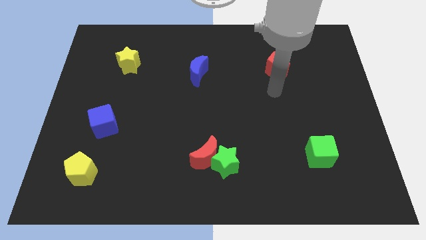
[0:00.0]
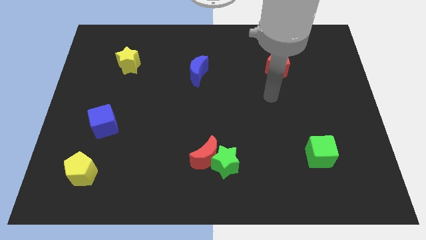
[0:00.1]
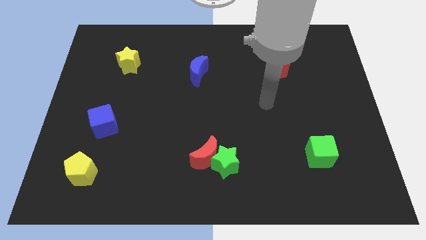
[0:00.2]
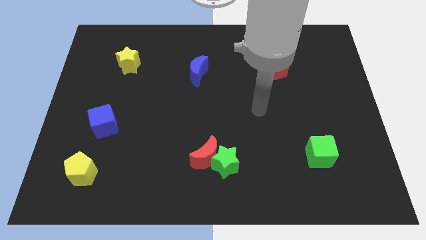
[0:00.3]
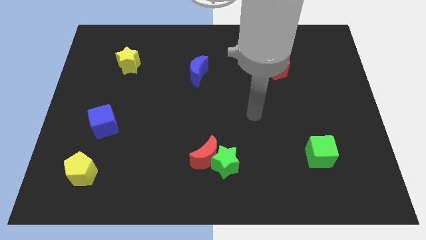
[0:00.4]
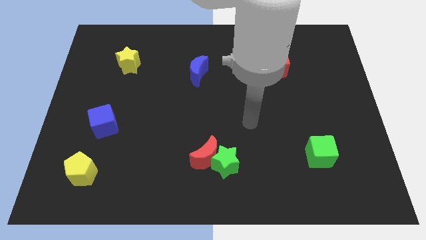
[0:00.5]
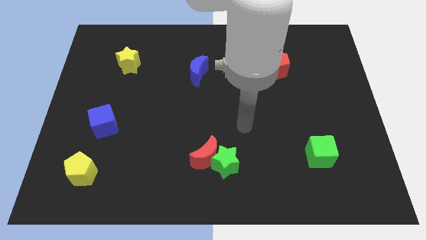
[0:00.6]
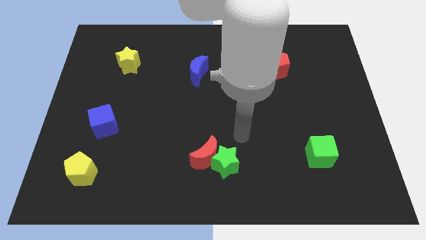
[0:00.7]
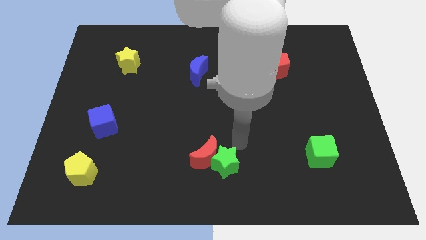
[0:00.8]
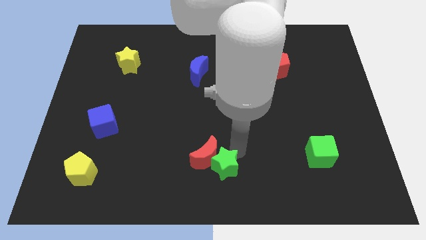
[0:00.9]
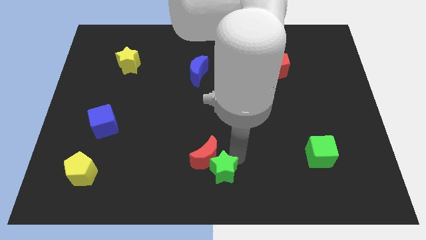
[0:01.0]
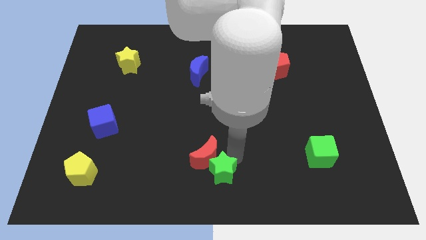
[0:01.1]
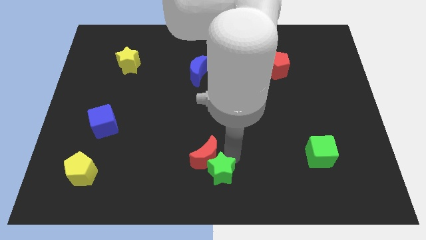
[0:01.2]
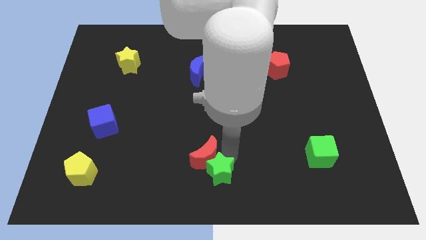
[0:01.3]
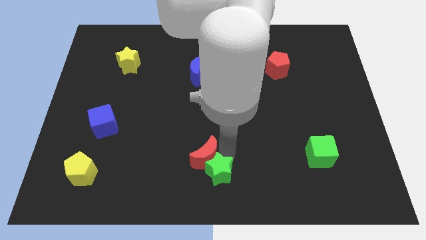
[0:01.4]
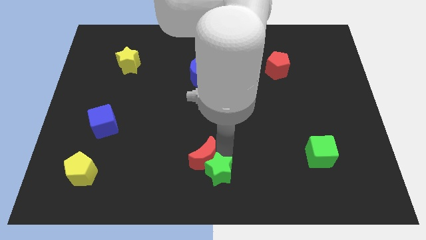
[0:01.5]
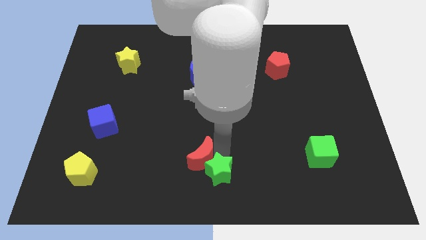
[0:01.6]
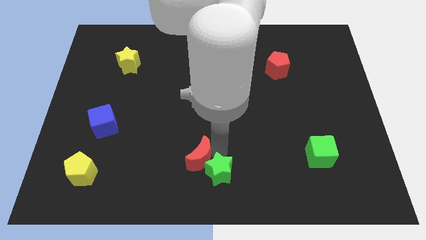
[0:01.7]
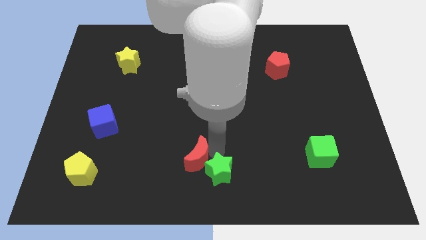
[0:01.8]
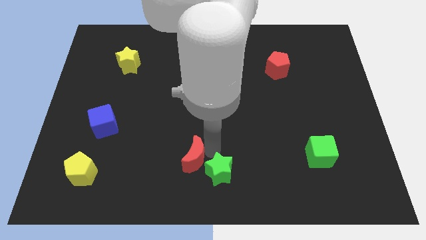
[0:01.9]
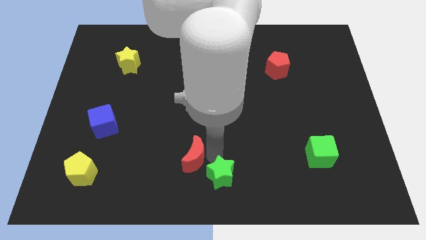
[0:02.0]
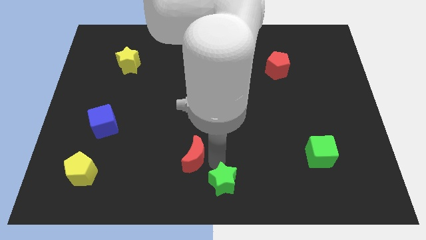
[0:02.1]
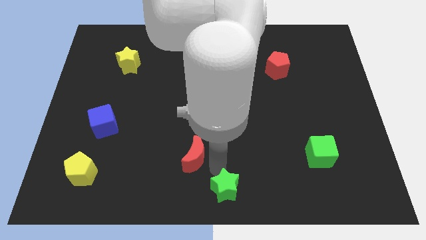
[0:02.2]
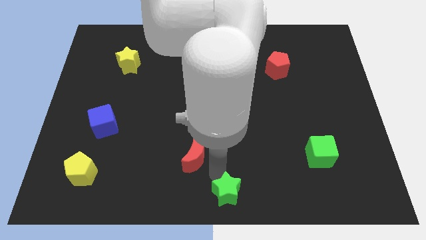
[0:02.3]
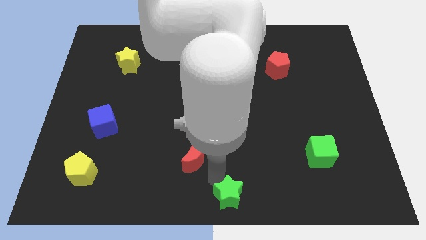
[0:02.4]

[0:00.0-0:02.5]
pull the red moon apart from the green star

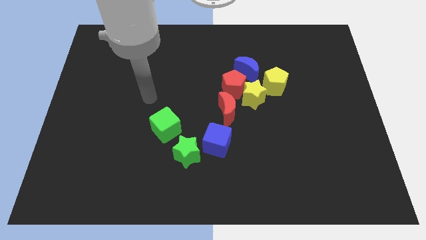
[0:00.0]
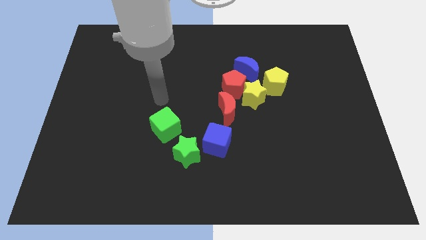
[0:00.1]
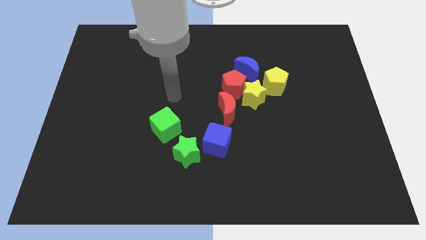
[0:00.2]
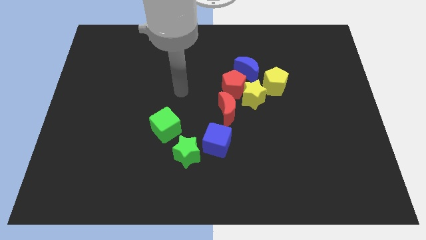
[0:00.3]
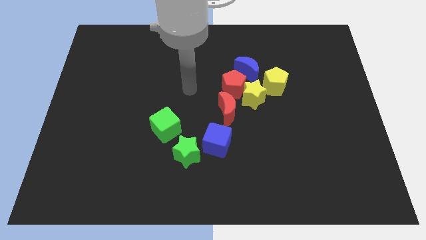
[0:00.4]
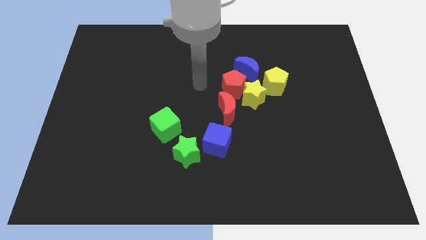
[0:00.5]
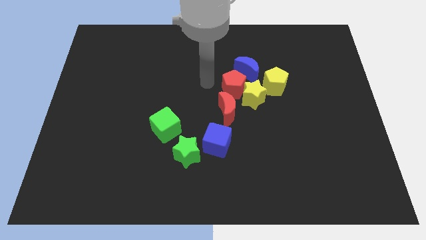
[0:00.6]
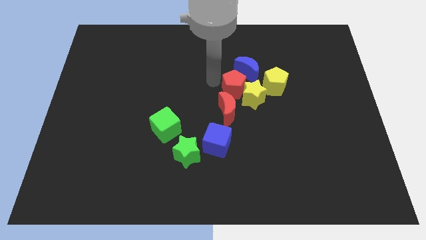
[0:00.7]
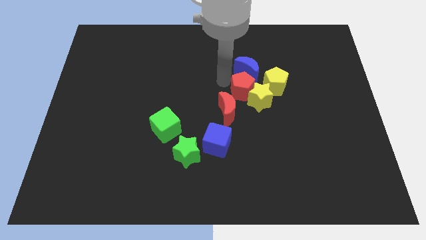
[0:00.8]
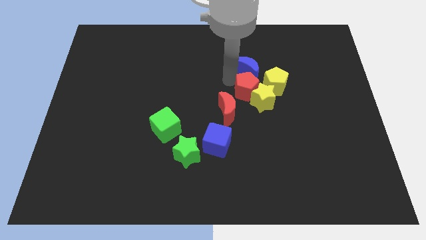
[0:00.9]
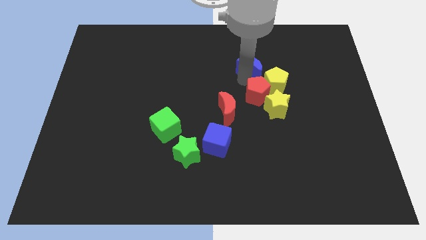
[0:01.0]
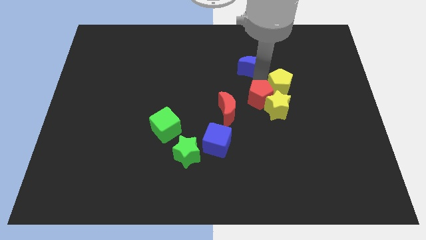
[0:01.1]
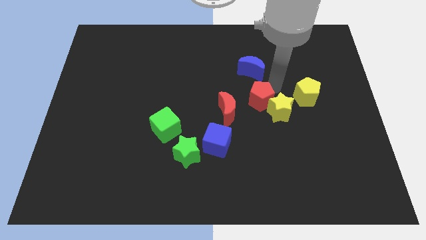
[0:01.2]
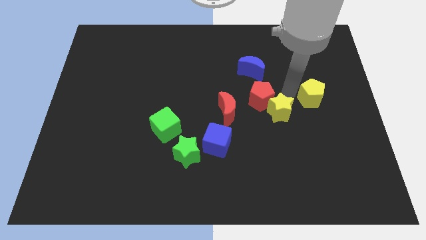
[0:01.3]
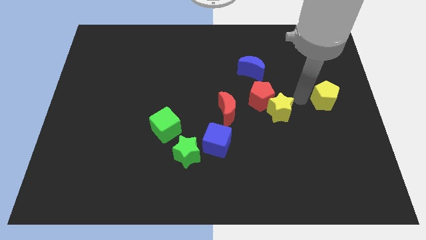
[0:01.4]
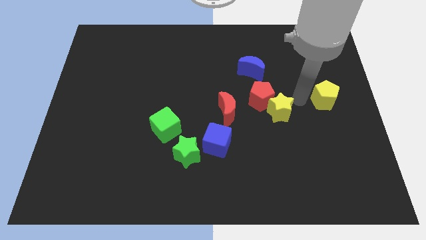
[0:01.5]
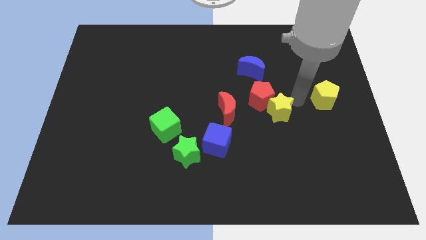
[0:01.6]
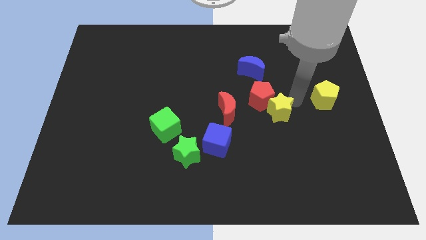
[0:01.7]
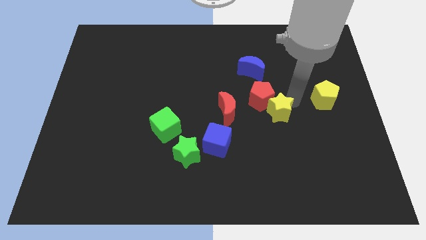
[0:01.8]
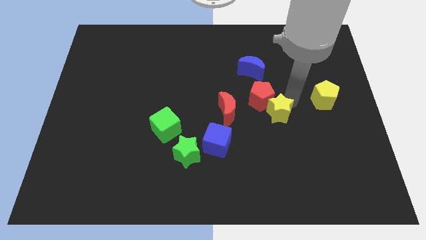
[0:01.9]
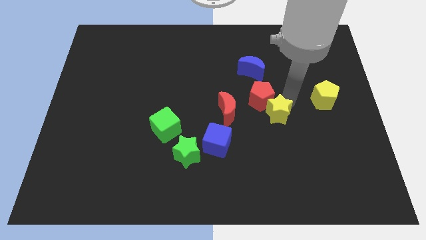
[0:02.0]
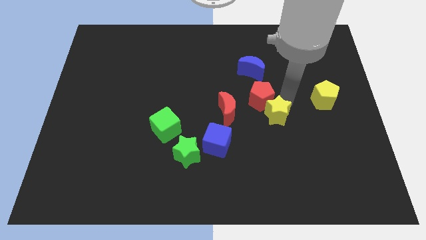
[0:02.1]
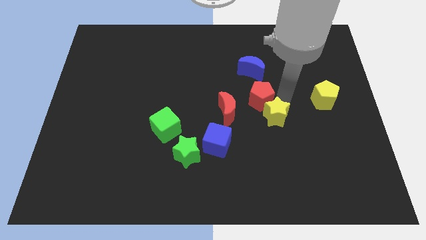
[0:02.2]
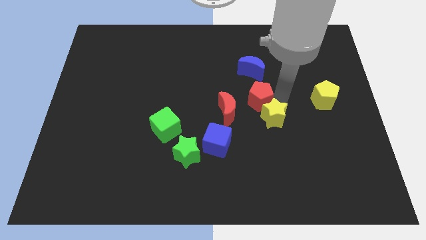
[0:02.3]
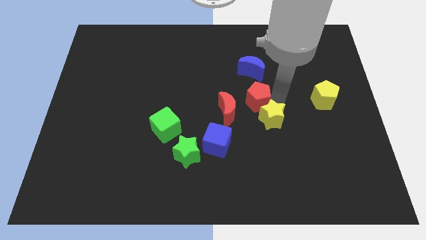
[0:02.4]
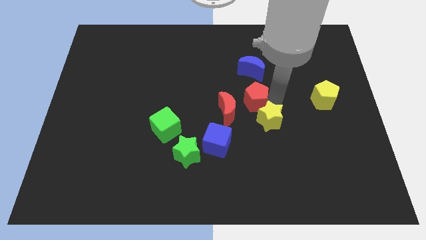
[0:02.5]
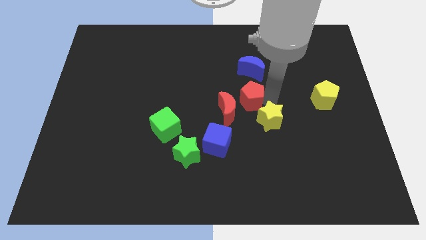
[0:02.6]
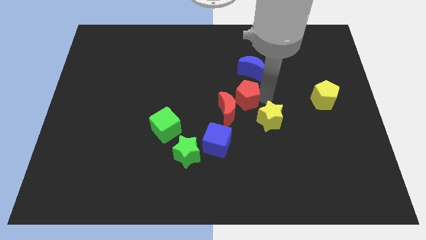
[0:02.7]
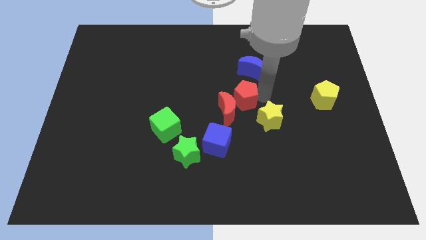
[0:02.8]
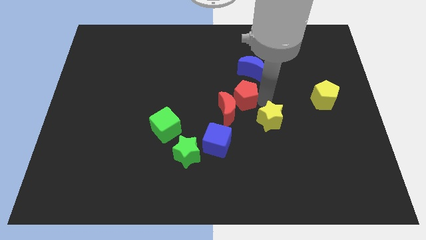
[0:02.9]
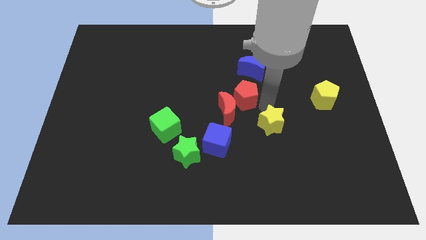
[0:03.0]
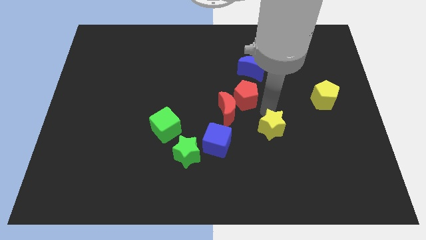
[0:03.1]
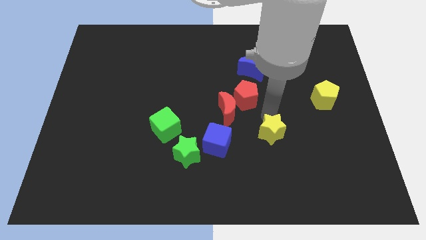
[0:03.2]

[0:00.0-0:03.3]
move the yellow star away from the group

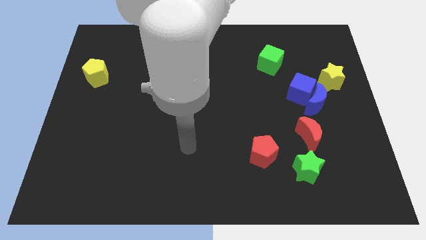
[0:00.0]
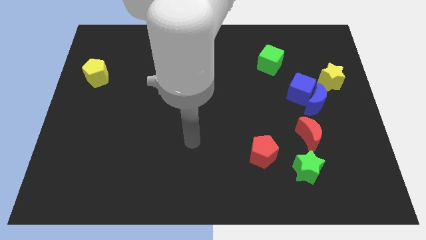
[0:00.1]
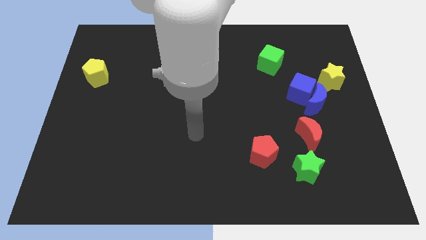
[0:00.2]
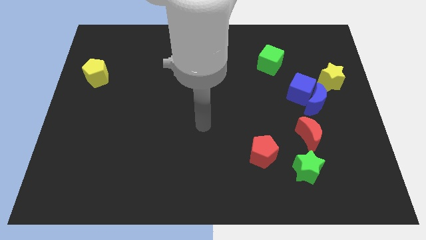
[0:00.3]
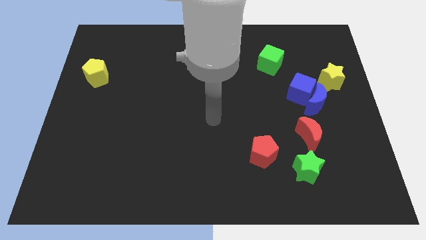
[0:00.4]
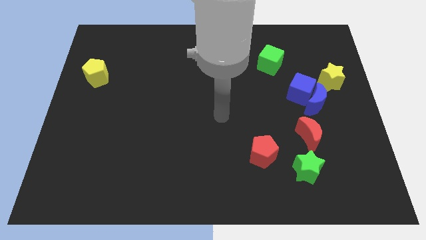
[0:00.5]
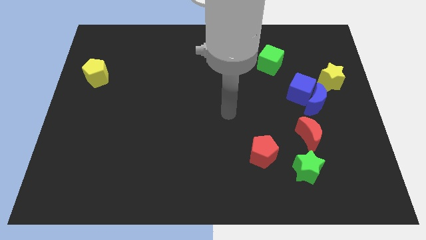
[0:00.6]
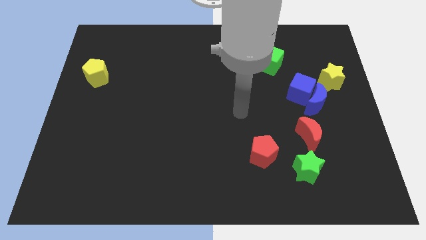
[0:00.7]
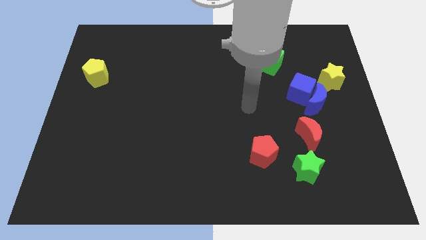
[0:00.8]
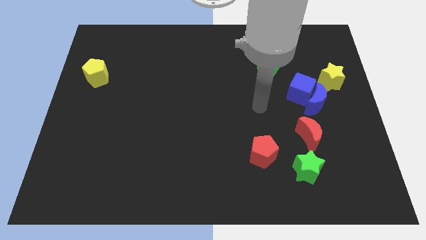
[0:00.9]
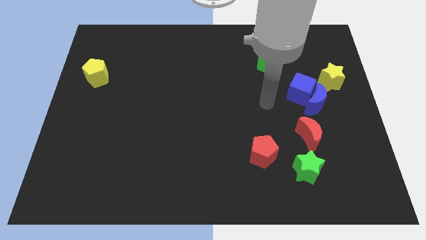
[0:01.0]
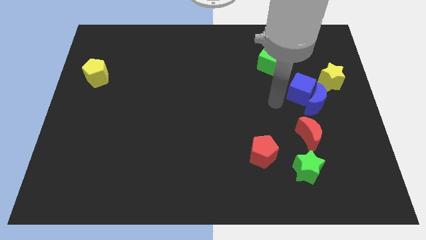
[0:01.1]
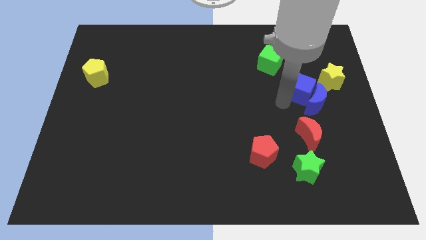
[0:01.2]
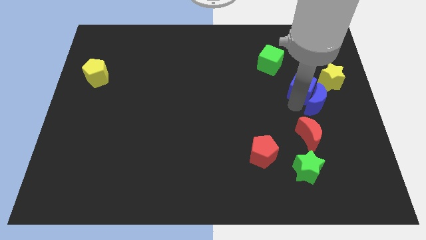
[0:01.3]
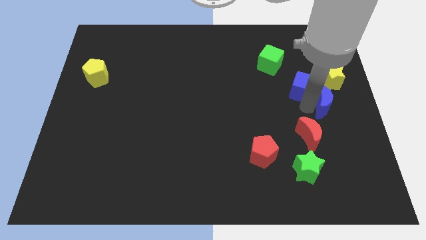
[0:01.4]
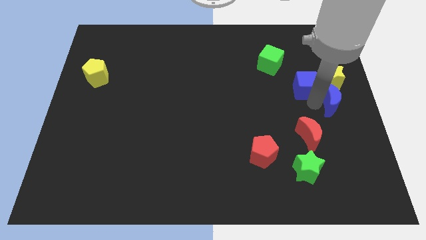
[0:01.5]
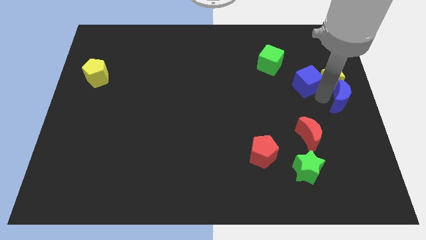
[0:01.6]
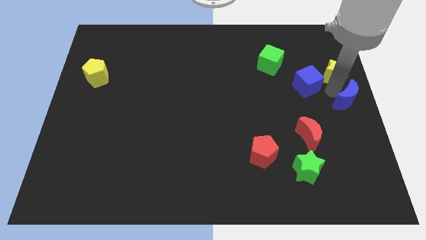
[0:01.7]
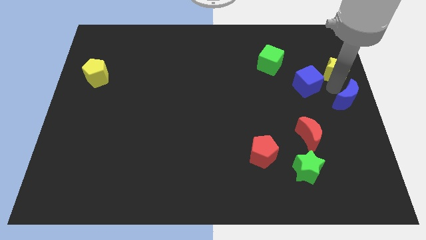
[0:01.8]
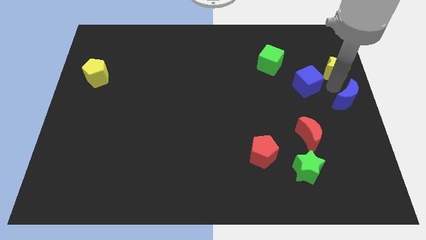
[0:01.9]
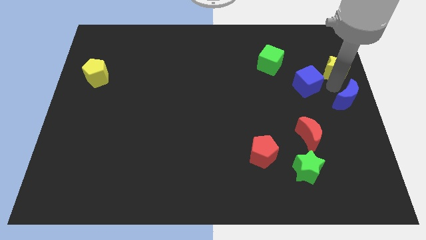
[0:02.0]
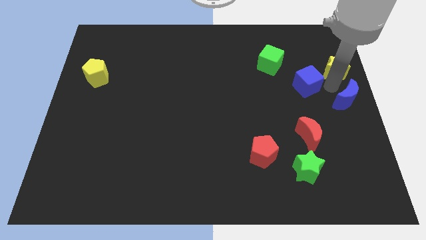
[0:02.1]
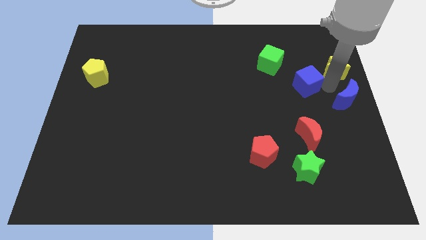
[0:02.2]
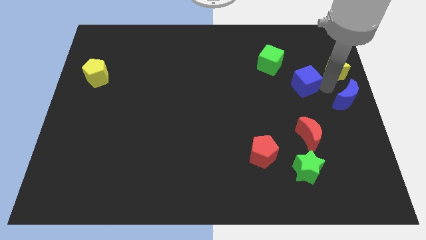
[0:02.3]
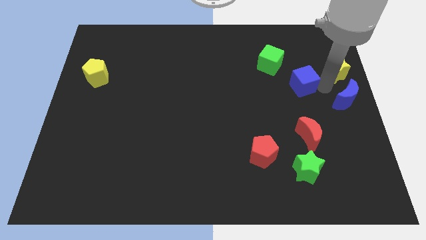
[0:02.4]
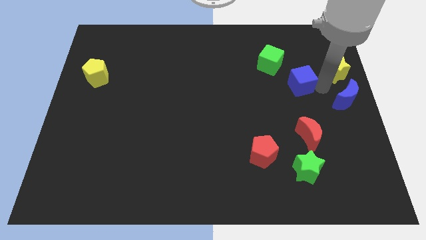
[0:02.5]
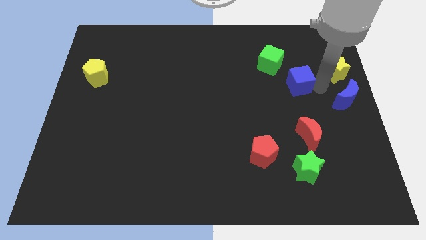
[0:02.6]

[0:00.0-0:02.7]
pull the blue cube apart from the blue moon and yellow star

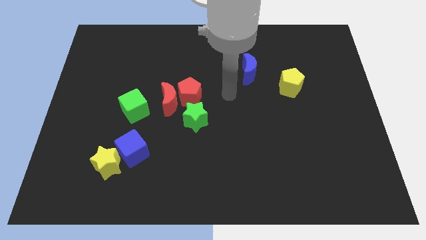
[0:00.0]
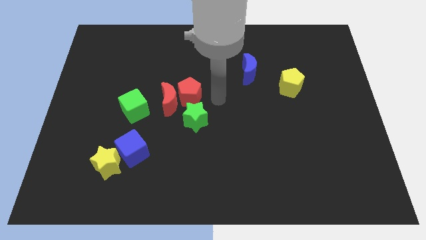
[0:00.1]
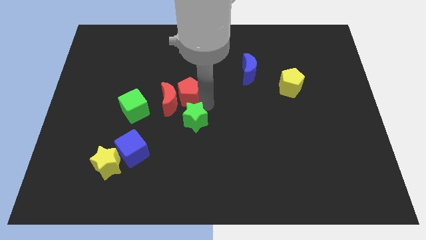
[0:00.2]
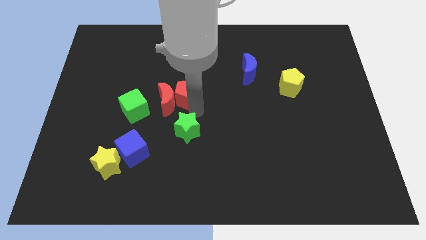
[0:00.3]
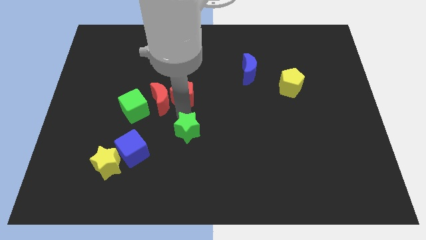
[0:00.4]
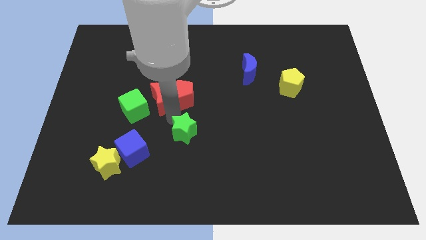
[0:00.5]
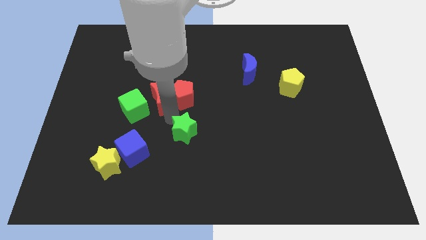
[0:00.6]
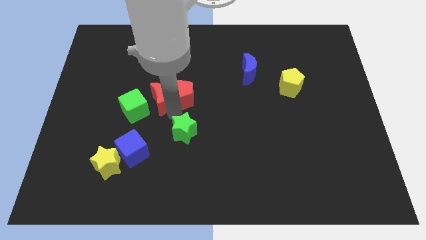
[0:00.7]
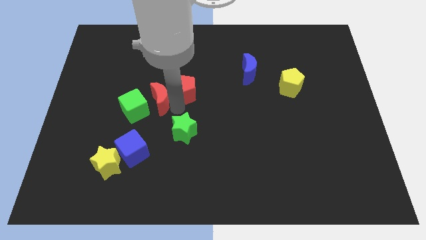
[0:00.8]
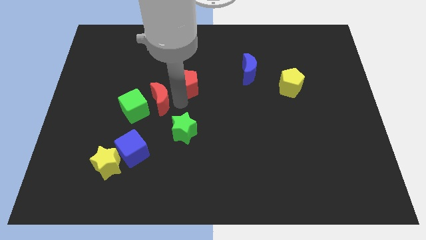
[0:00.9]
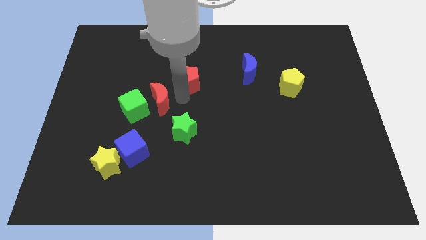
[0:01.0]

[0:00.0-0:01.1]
pull the red pentagon apart from the red moon and green star

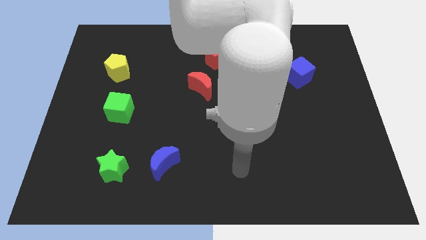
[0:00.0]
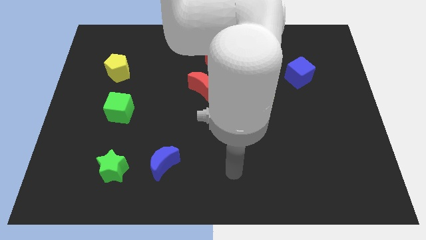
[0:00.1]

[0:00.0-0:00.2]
separate the blue moon from the green star
